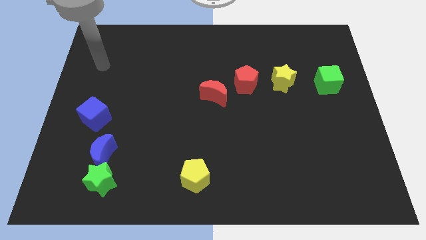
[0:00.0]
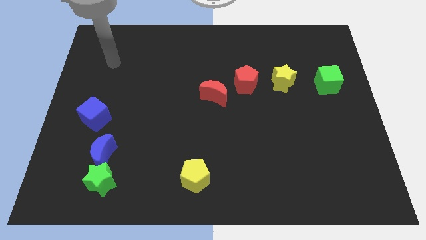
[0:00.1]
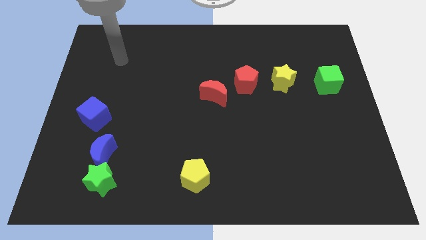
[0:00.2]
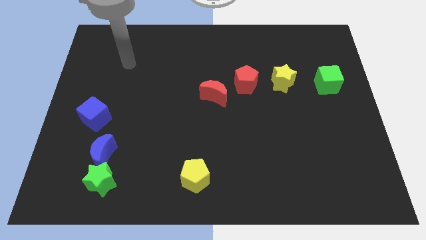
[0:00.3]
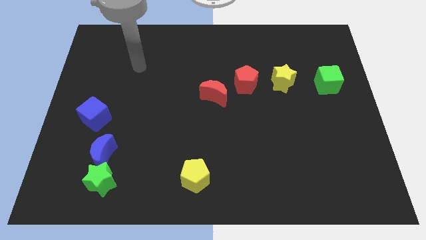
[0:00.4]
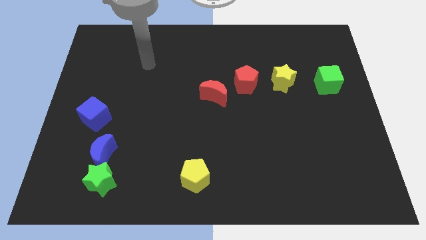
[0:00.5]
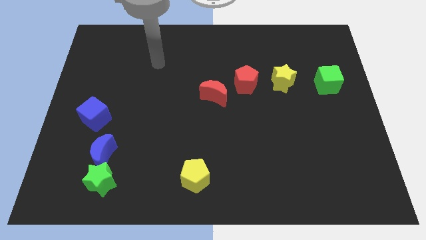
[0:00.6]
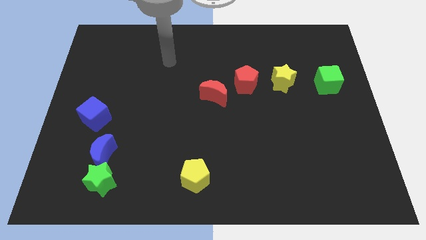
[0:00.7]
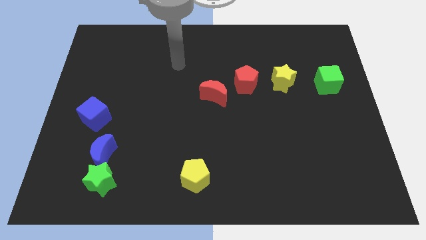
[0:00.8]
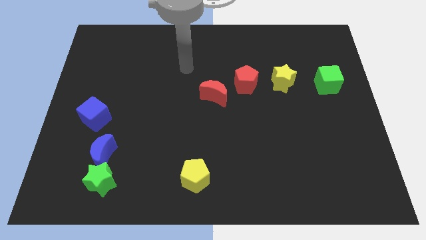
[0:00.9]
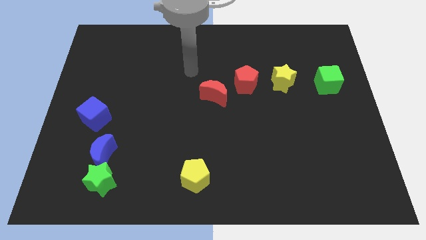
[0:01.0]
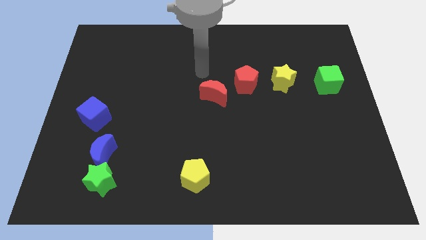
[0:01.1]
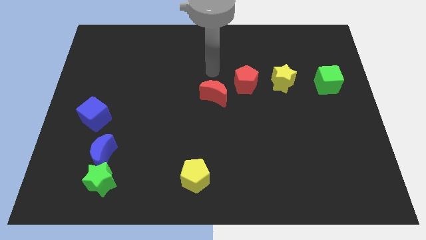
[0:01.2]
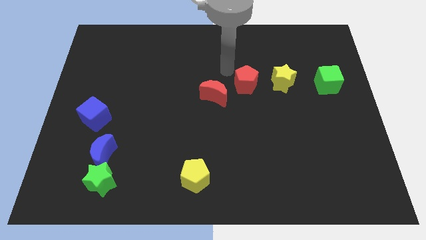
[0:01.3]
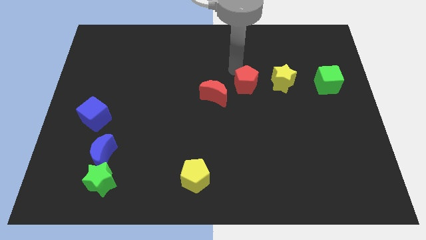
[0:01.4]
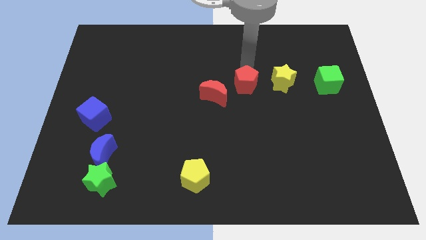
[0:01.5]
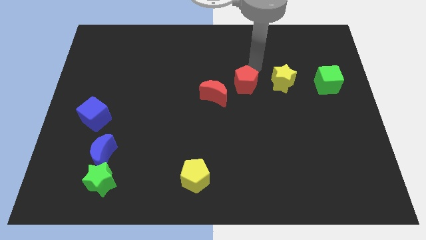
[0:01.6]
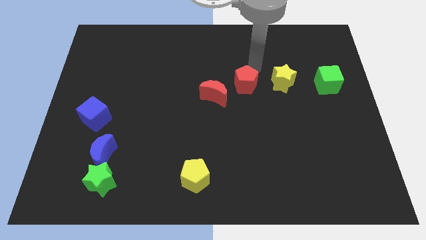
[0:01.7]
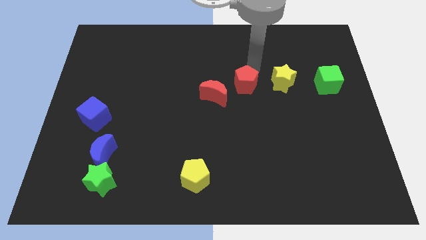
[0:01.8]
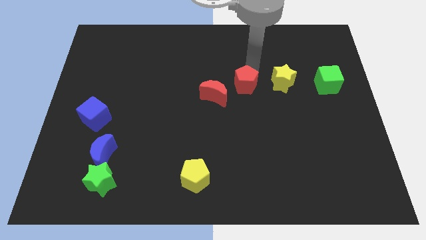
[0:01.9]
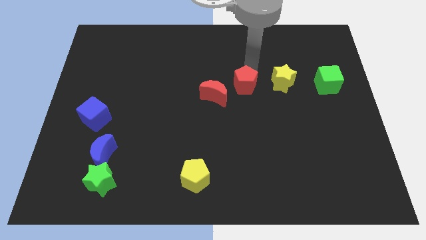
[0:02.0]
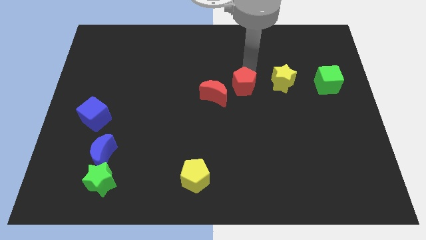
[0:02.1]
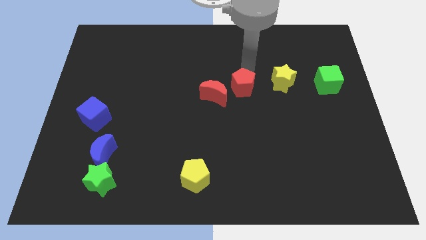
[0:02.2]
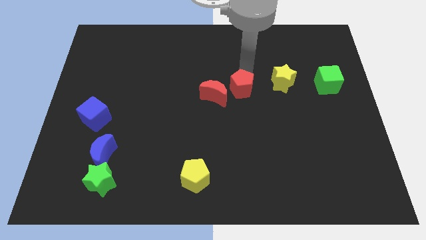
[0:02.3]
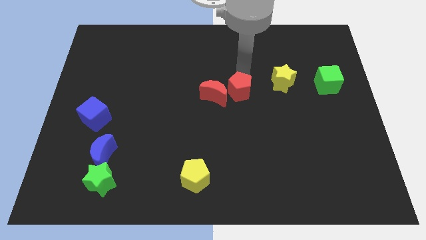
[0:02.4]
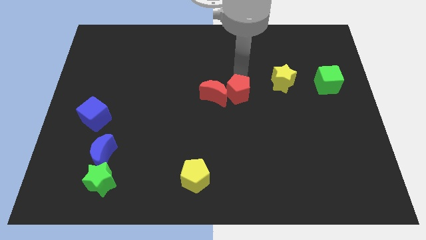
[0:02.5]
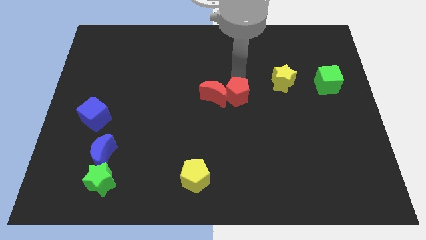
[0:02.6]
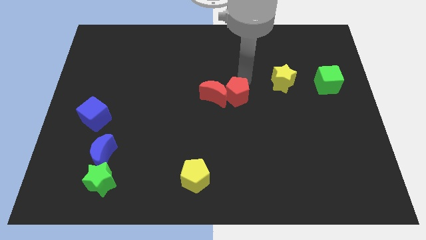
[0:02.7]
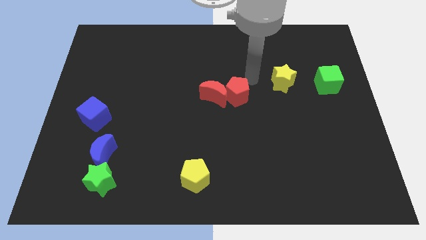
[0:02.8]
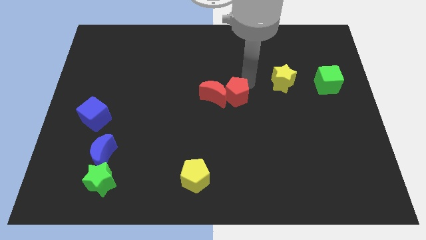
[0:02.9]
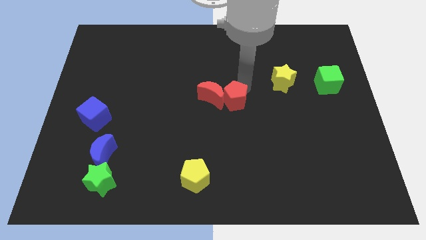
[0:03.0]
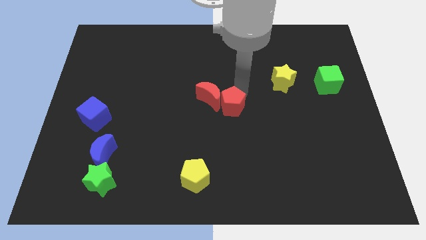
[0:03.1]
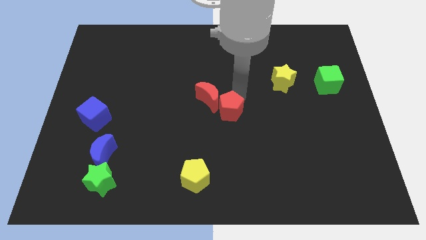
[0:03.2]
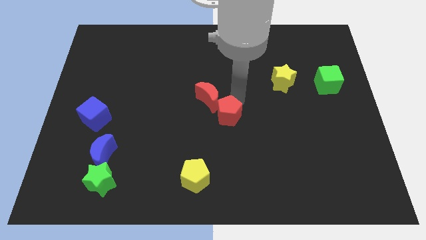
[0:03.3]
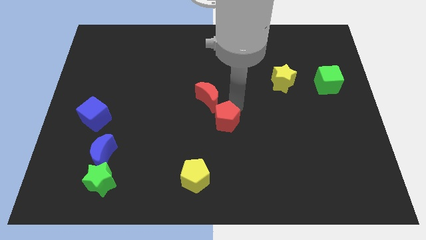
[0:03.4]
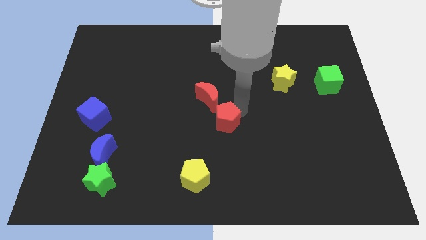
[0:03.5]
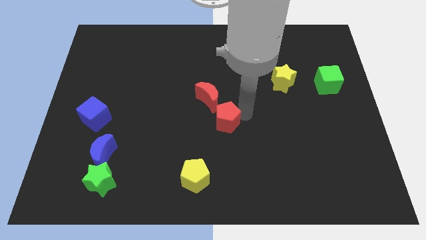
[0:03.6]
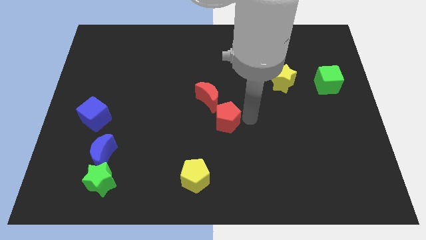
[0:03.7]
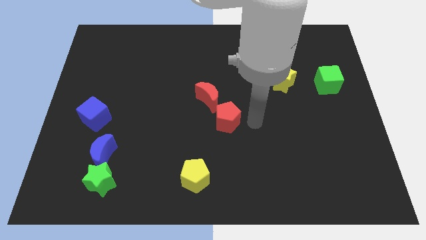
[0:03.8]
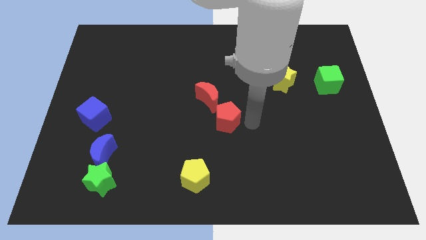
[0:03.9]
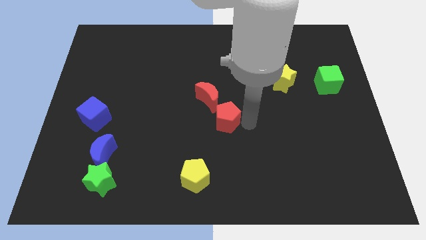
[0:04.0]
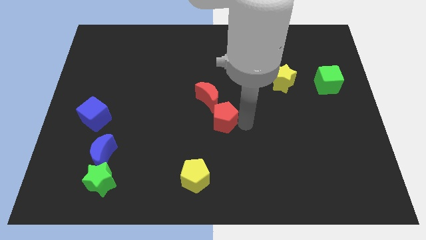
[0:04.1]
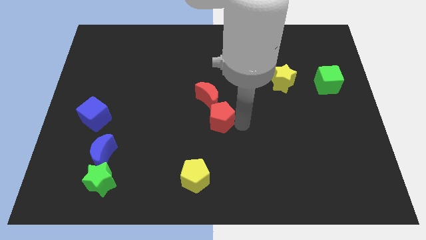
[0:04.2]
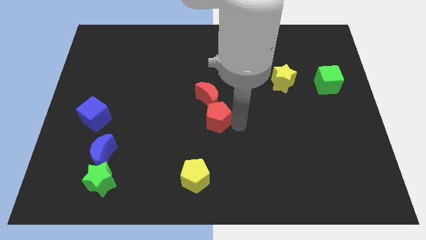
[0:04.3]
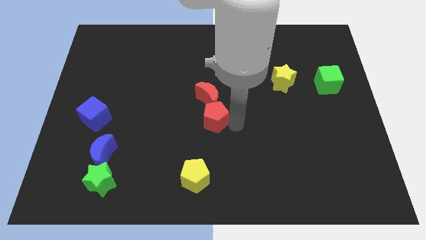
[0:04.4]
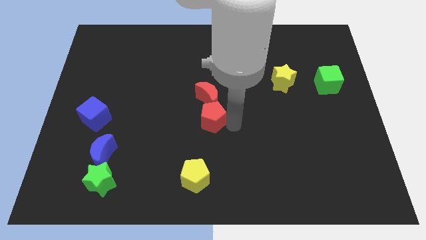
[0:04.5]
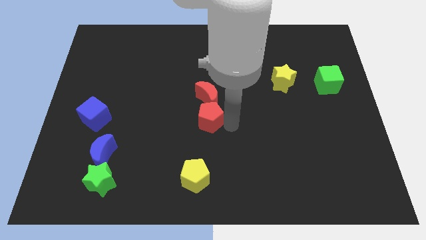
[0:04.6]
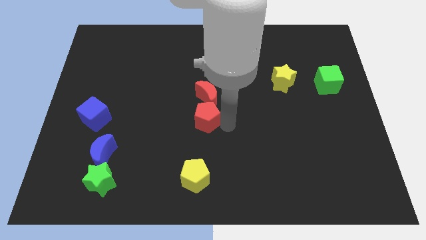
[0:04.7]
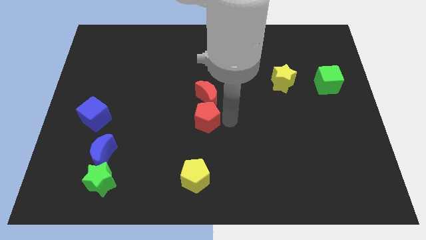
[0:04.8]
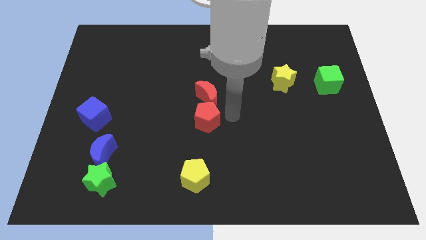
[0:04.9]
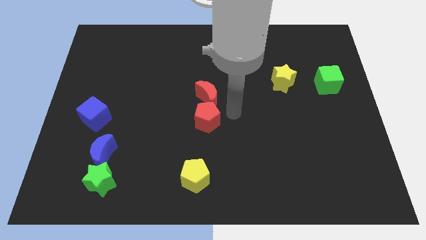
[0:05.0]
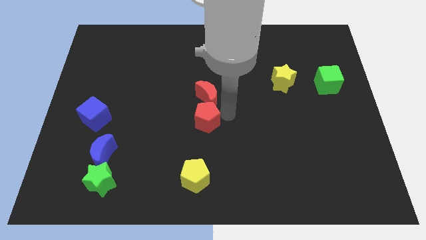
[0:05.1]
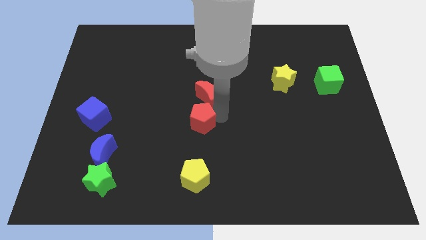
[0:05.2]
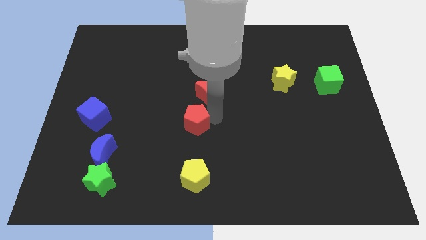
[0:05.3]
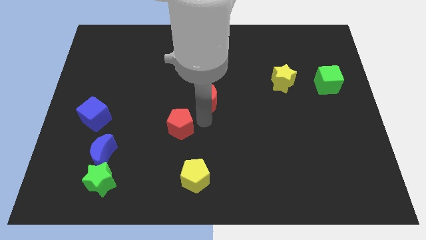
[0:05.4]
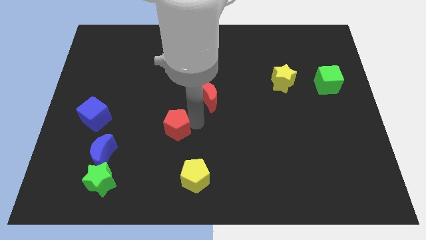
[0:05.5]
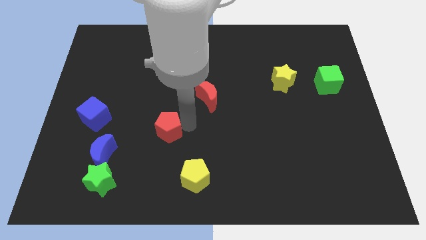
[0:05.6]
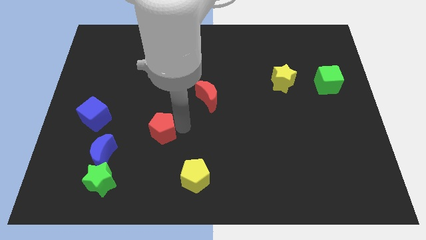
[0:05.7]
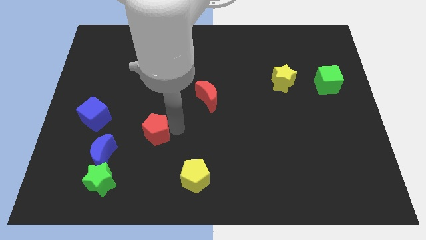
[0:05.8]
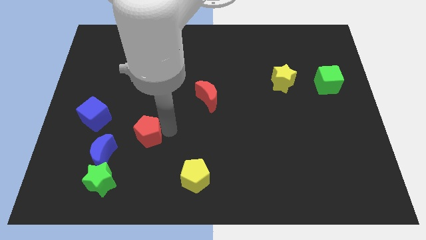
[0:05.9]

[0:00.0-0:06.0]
put the red pentagon diagonally up and to the right of the blue moon

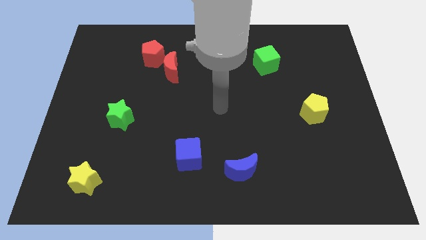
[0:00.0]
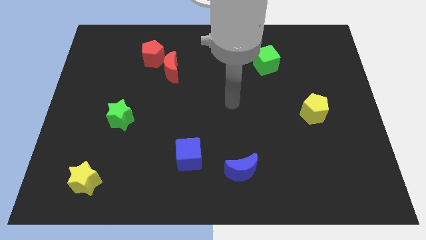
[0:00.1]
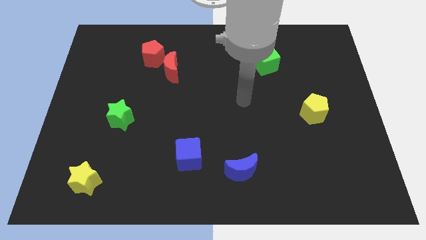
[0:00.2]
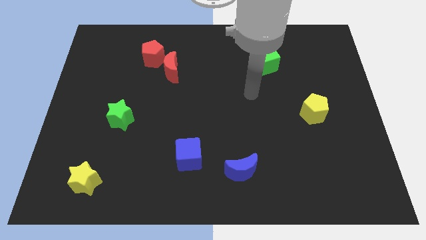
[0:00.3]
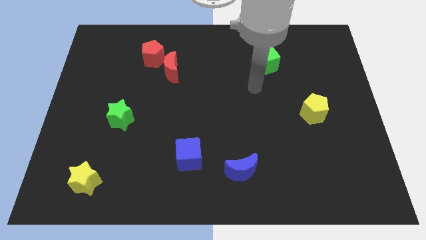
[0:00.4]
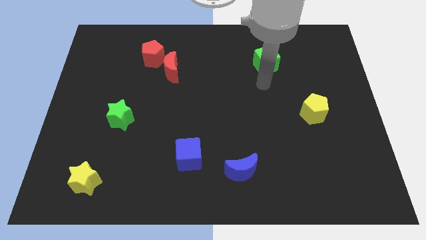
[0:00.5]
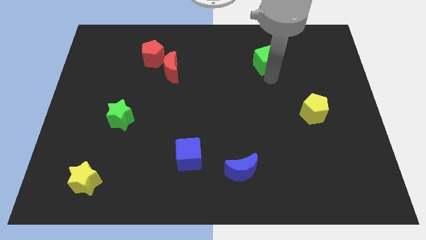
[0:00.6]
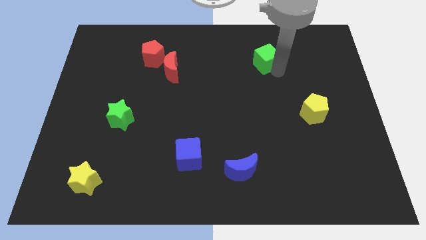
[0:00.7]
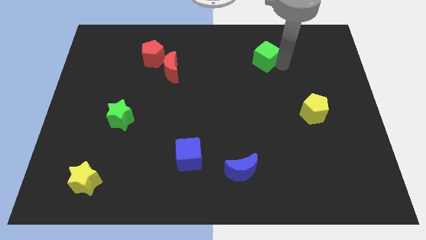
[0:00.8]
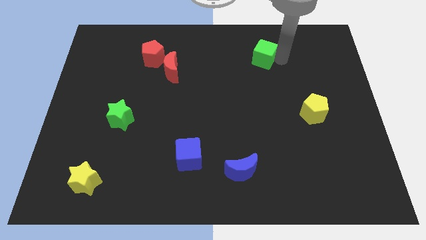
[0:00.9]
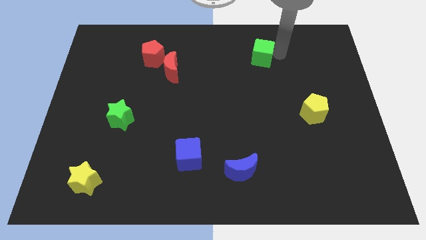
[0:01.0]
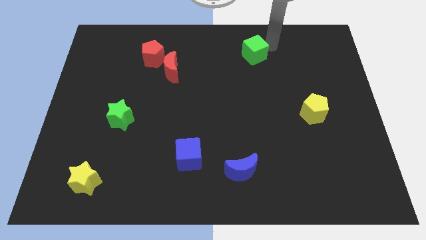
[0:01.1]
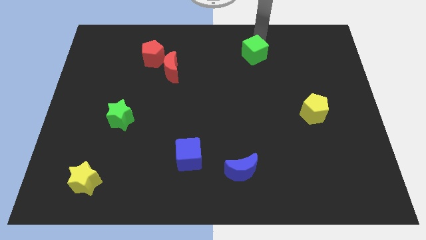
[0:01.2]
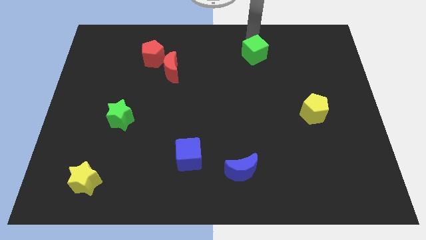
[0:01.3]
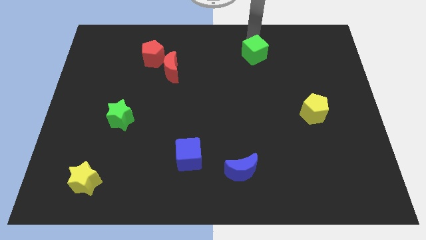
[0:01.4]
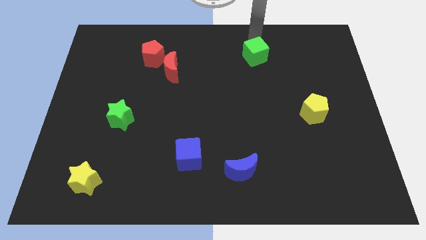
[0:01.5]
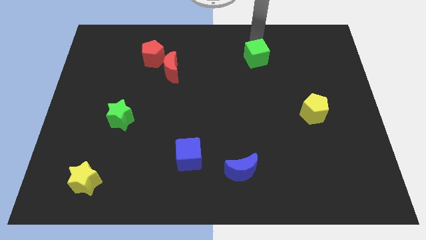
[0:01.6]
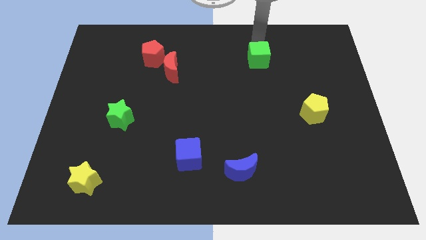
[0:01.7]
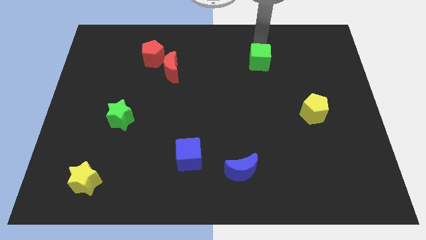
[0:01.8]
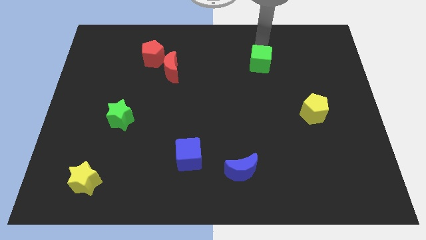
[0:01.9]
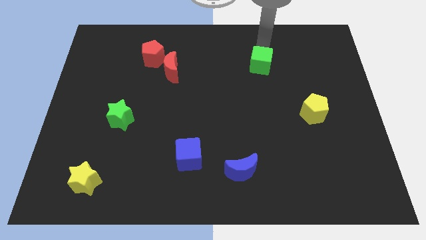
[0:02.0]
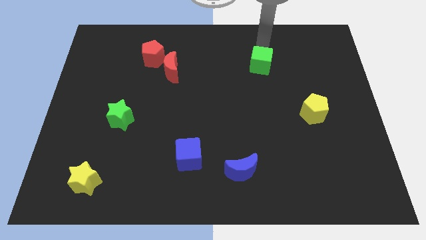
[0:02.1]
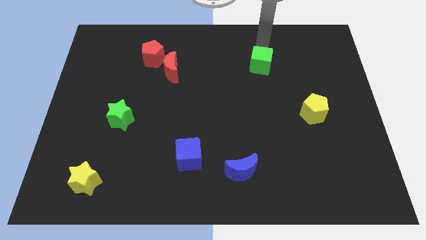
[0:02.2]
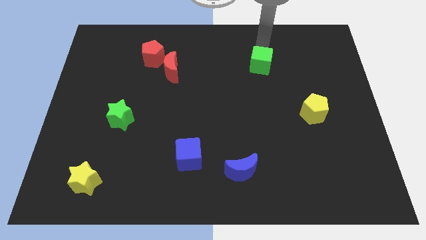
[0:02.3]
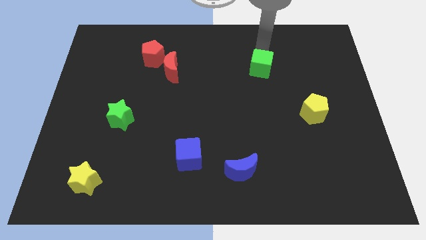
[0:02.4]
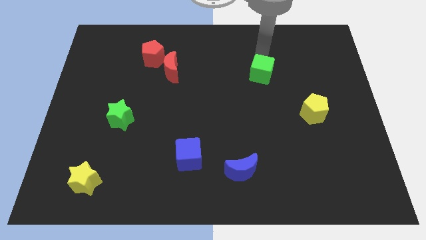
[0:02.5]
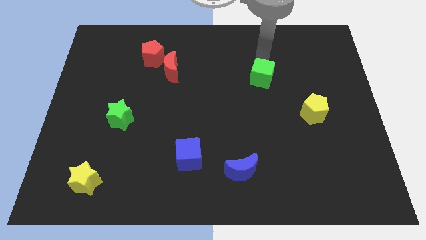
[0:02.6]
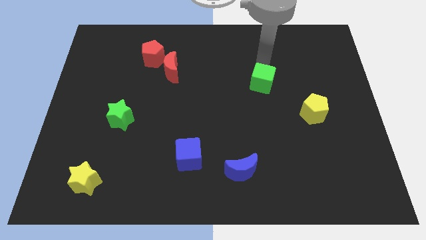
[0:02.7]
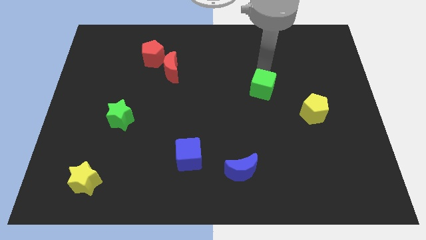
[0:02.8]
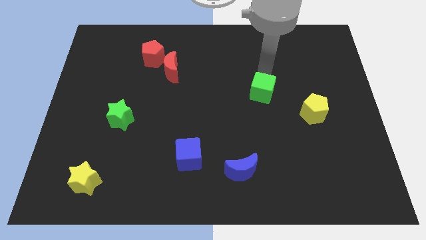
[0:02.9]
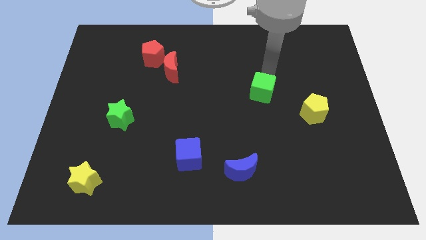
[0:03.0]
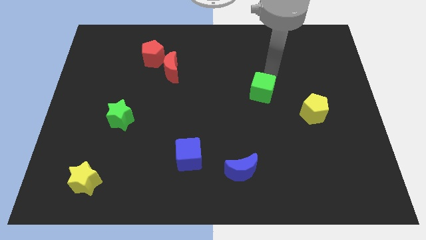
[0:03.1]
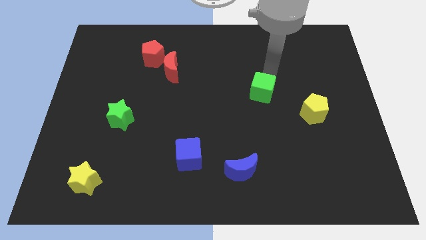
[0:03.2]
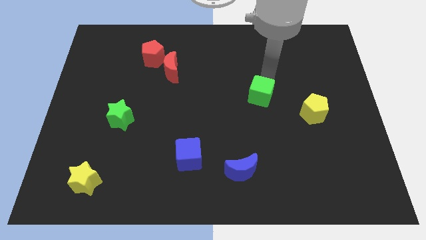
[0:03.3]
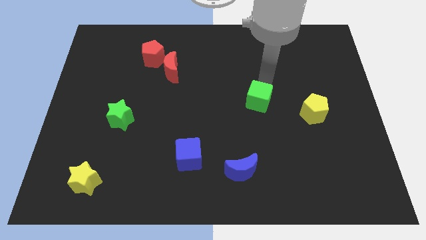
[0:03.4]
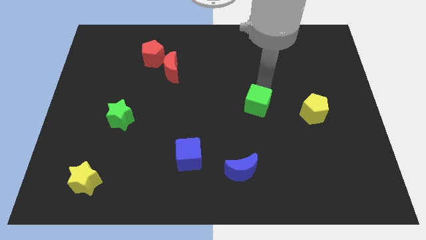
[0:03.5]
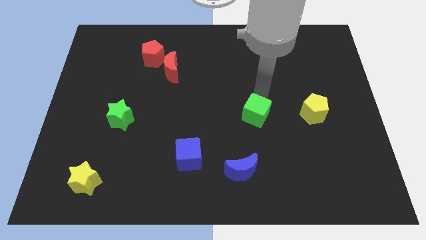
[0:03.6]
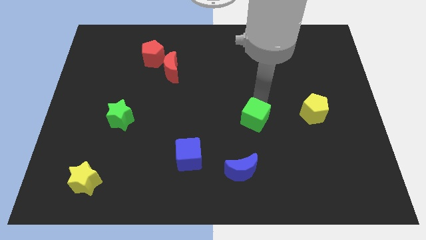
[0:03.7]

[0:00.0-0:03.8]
put the green cube to the top of the blue moon
